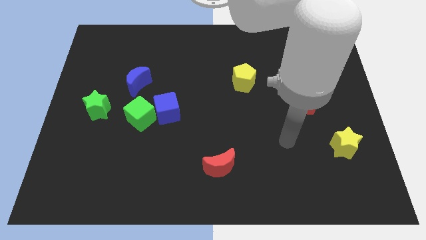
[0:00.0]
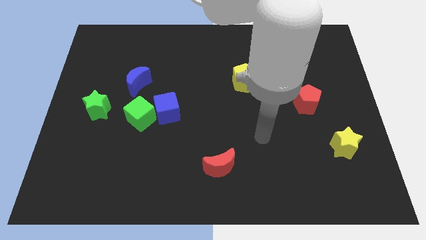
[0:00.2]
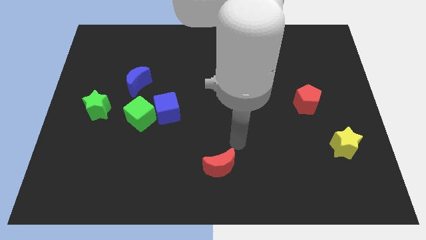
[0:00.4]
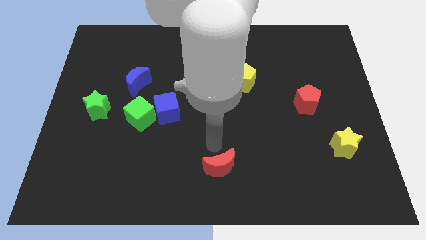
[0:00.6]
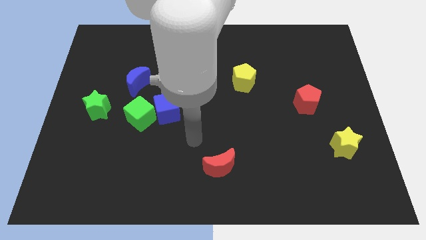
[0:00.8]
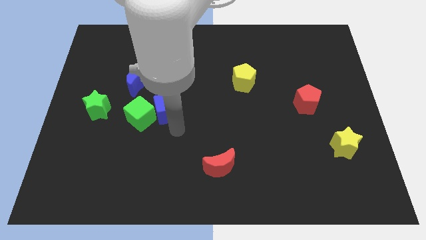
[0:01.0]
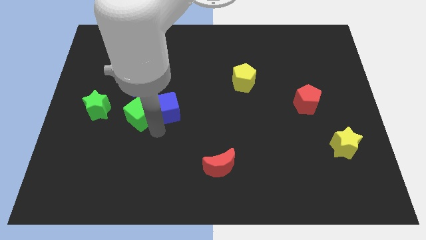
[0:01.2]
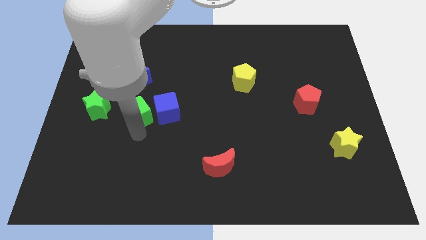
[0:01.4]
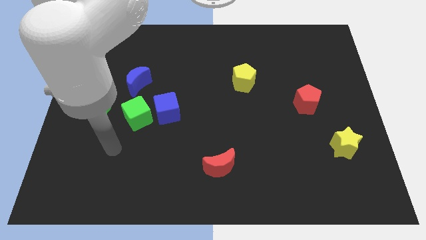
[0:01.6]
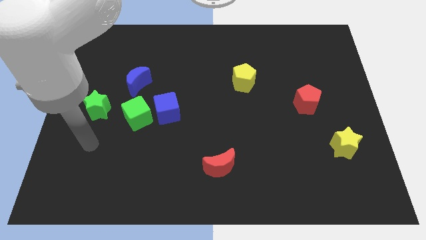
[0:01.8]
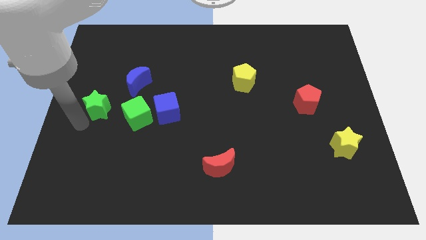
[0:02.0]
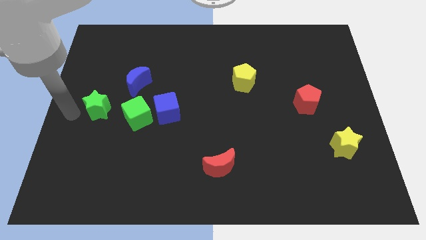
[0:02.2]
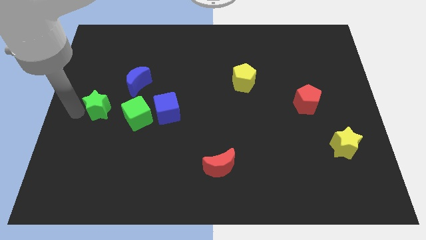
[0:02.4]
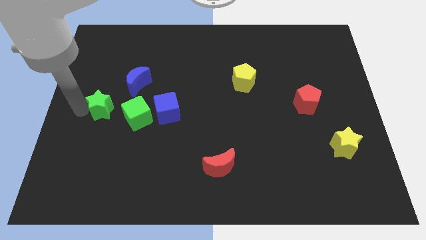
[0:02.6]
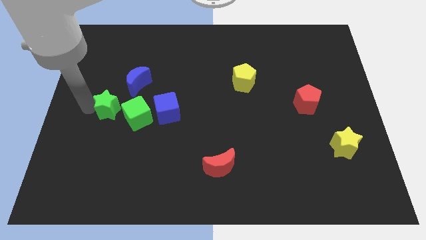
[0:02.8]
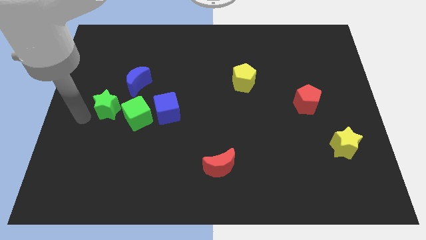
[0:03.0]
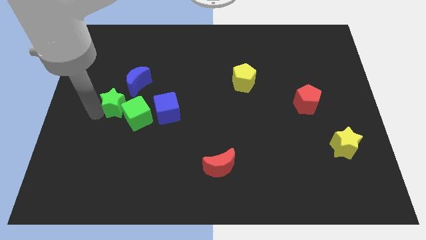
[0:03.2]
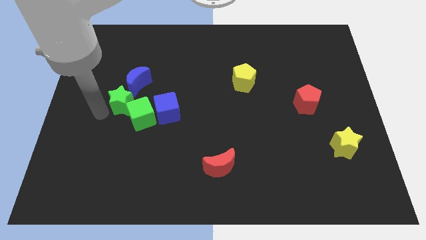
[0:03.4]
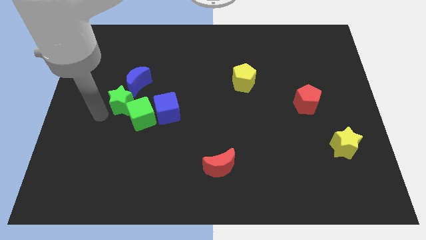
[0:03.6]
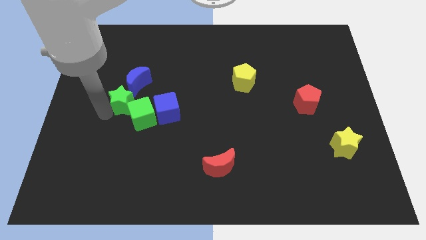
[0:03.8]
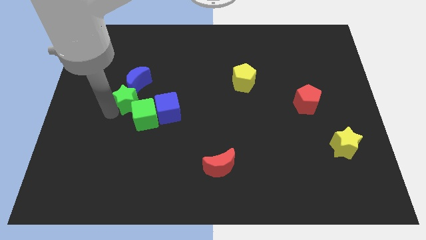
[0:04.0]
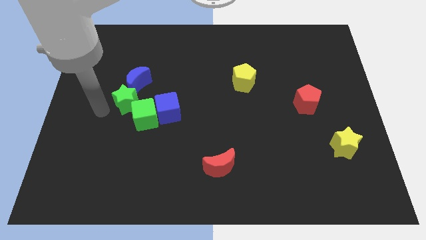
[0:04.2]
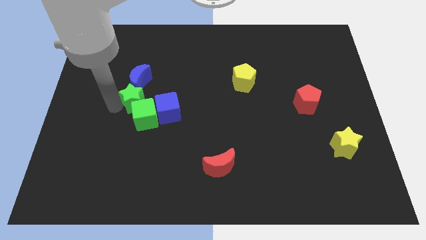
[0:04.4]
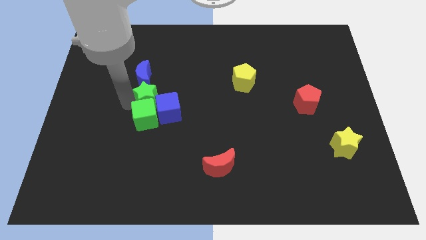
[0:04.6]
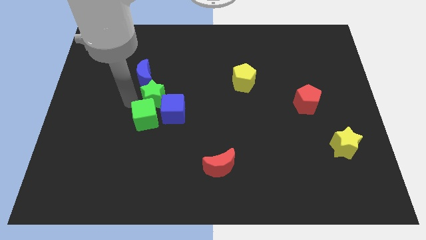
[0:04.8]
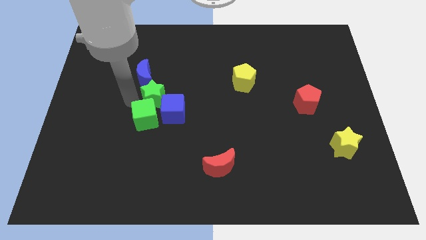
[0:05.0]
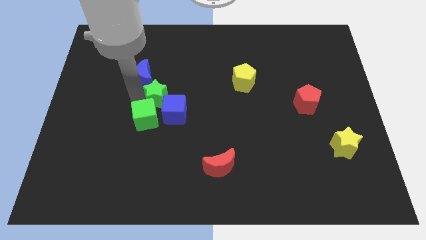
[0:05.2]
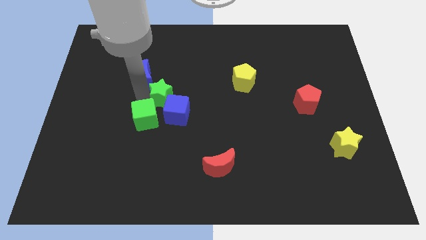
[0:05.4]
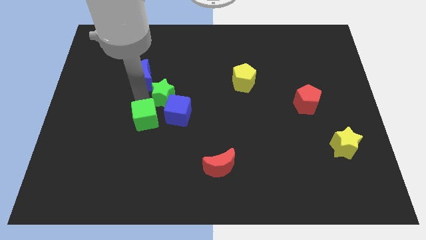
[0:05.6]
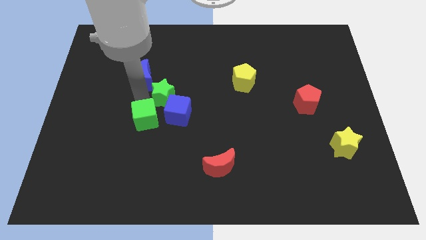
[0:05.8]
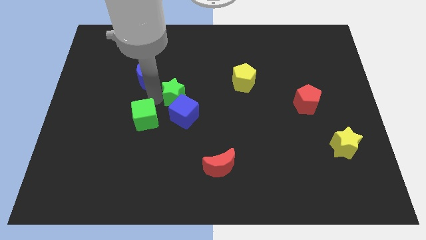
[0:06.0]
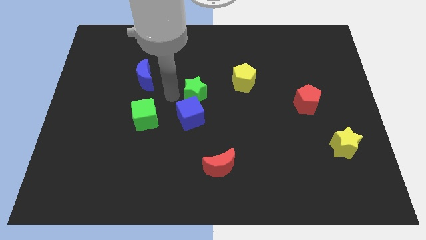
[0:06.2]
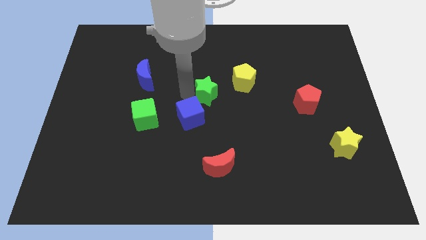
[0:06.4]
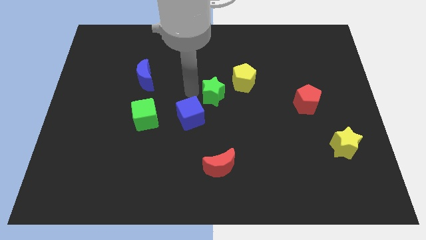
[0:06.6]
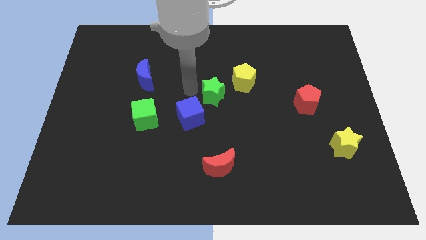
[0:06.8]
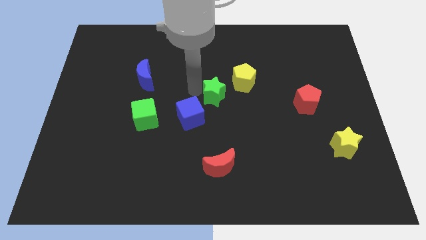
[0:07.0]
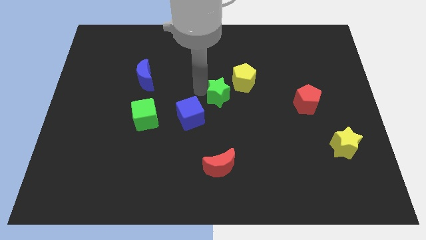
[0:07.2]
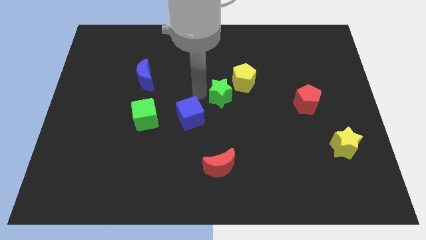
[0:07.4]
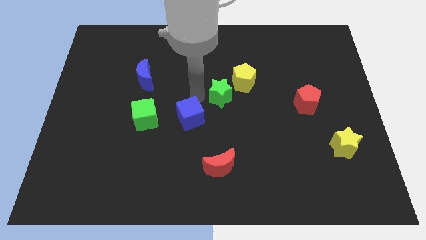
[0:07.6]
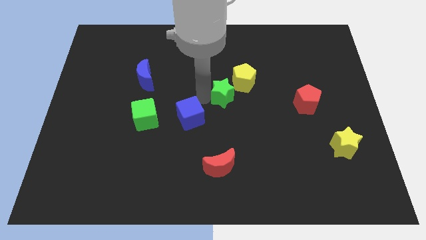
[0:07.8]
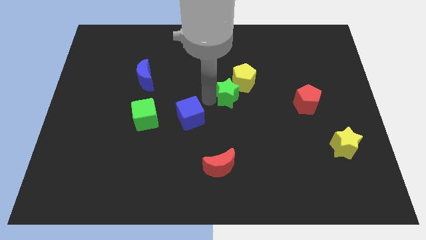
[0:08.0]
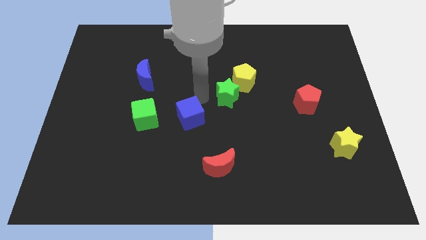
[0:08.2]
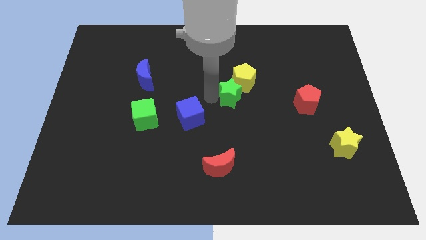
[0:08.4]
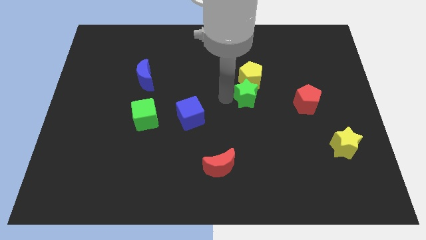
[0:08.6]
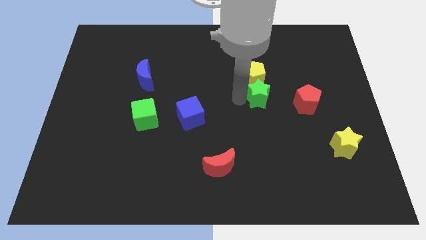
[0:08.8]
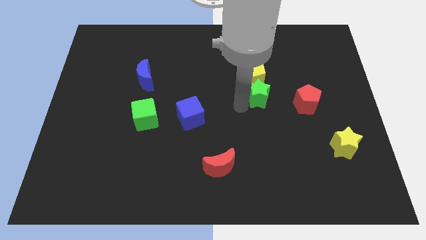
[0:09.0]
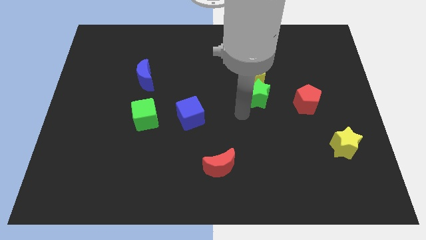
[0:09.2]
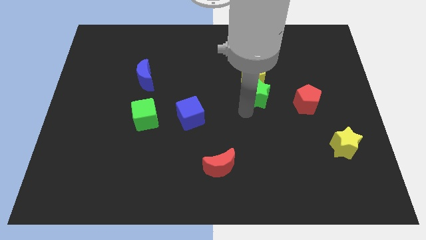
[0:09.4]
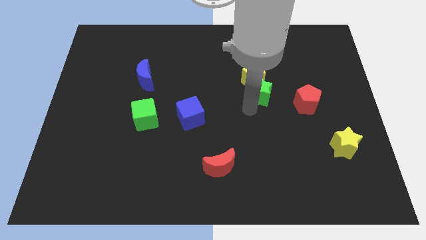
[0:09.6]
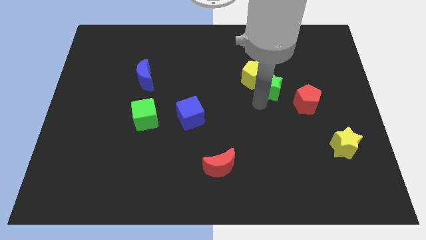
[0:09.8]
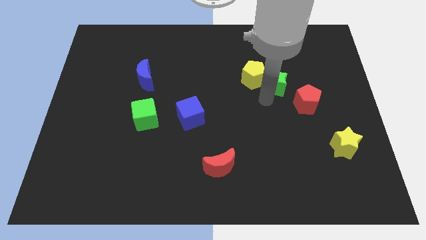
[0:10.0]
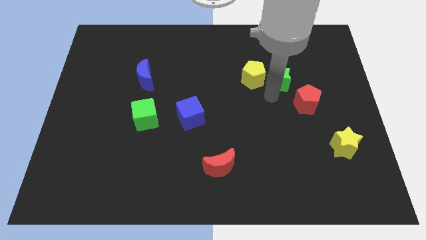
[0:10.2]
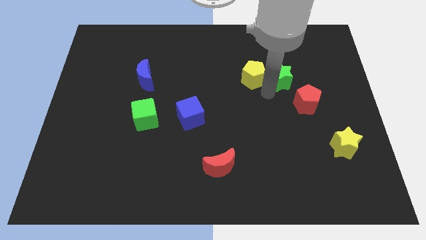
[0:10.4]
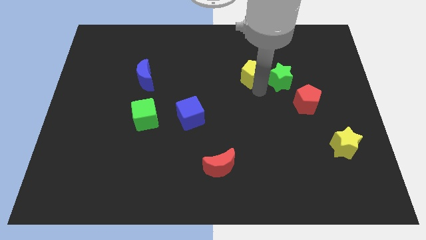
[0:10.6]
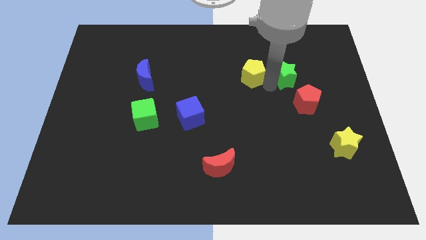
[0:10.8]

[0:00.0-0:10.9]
move the green star to the top of the red pentagon

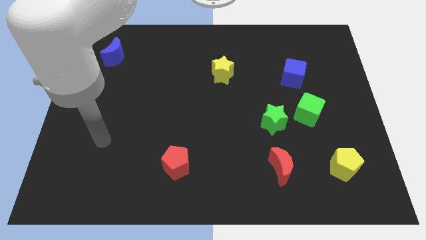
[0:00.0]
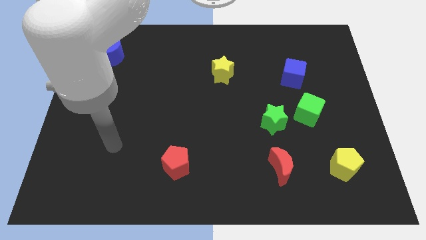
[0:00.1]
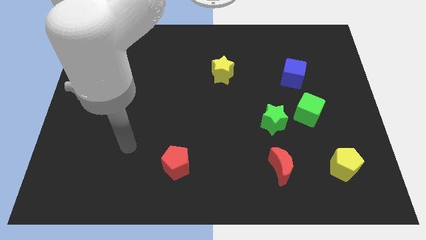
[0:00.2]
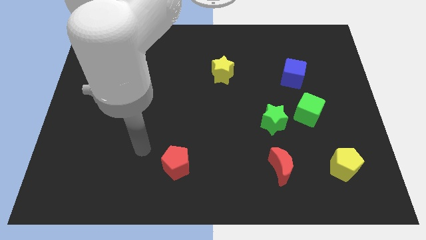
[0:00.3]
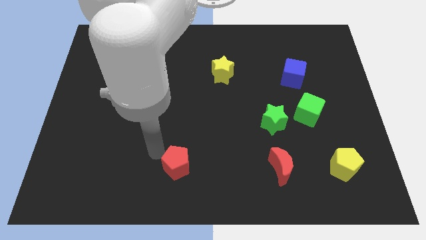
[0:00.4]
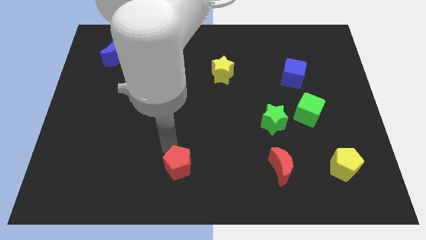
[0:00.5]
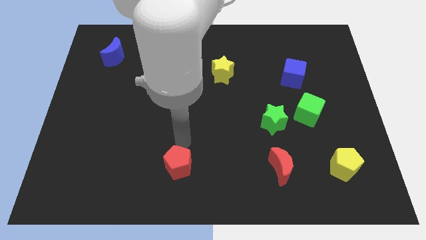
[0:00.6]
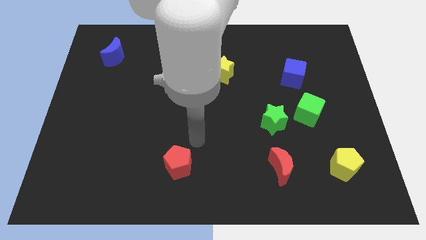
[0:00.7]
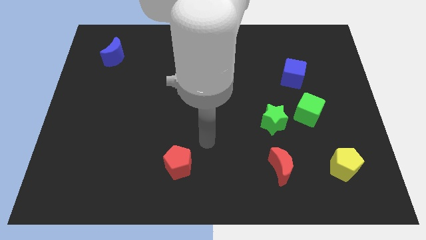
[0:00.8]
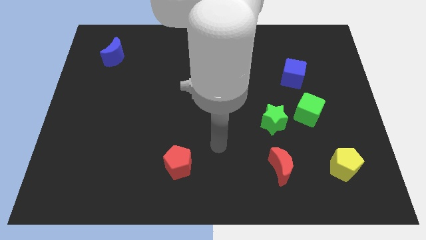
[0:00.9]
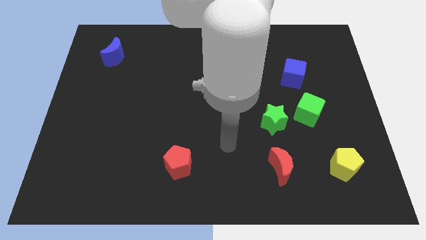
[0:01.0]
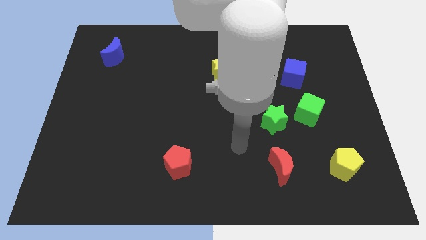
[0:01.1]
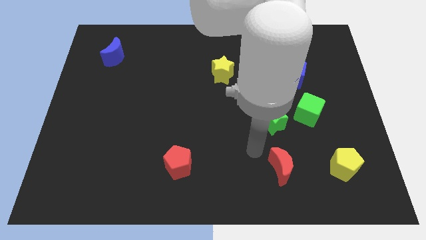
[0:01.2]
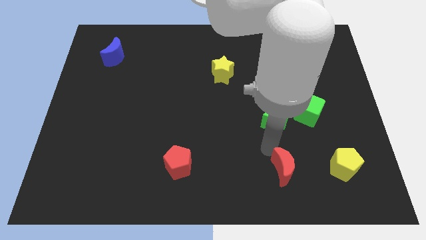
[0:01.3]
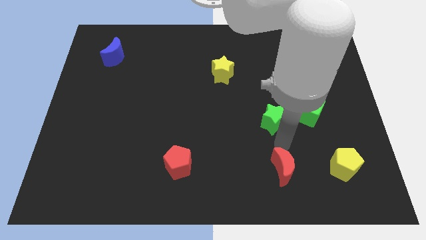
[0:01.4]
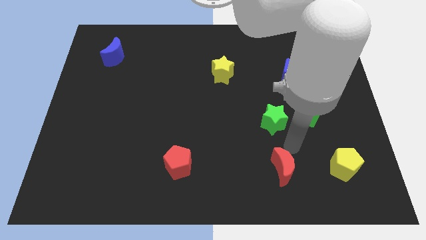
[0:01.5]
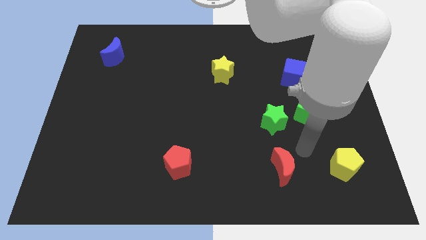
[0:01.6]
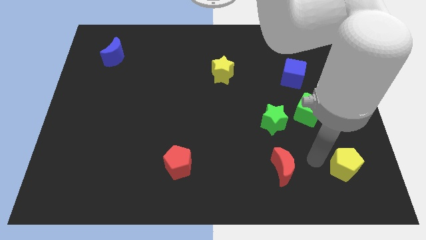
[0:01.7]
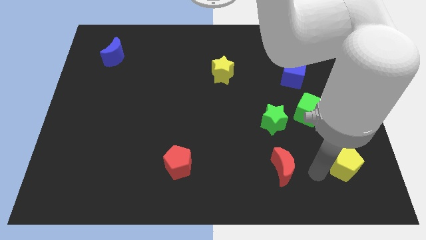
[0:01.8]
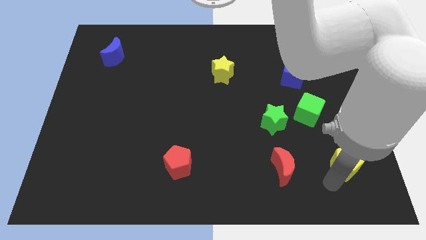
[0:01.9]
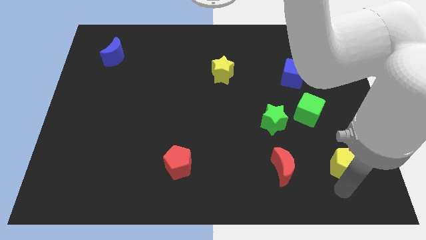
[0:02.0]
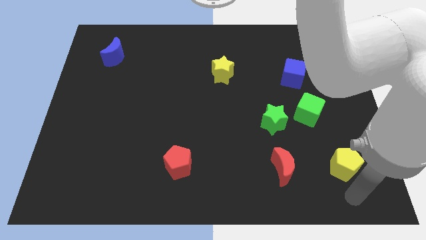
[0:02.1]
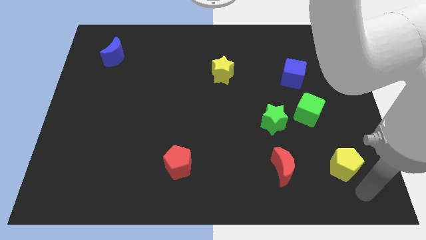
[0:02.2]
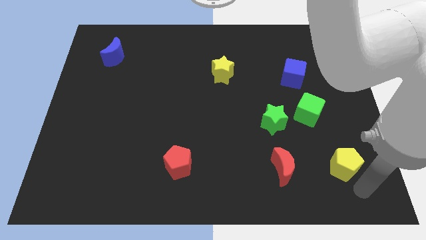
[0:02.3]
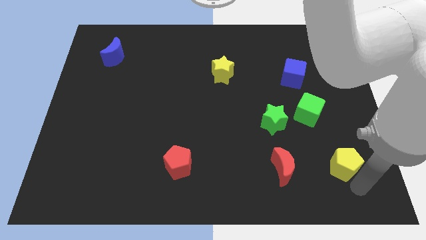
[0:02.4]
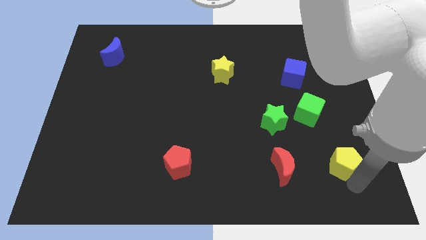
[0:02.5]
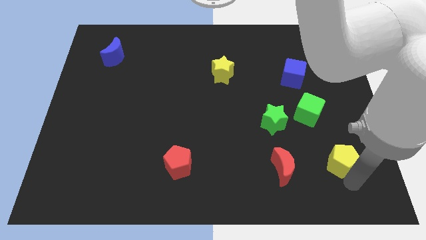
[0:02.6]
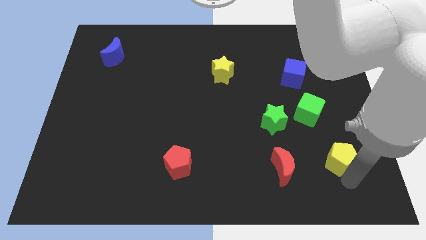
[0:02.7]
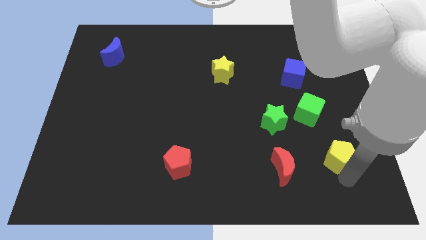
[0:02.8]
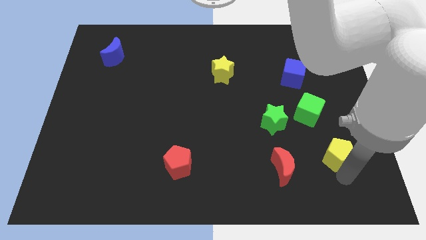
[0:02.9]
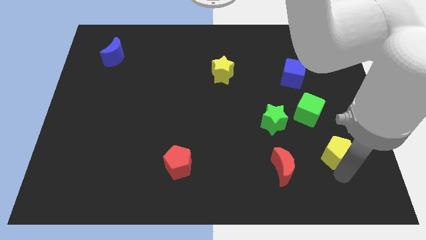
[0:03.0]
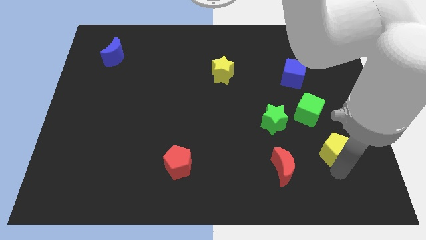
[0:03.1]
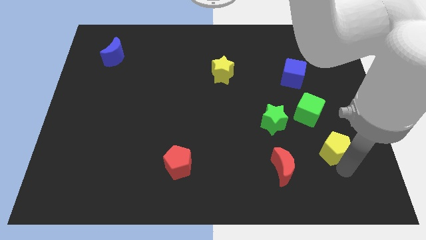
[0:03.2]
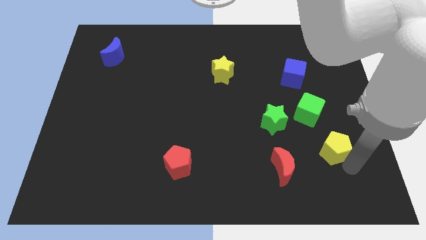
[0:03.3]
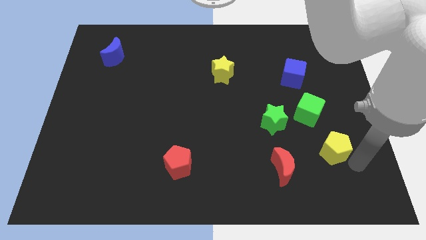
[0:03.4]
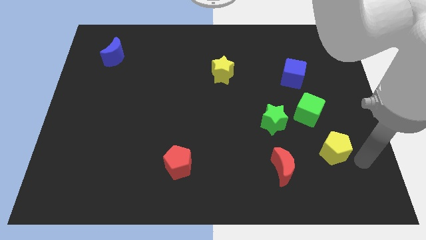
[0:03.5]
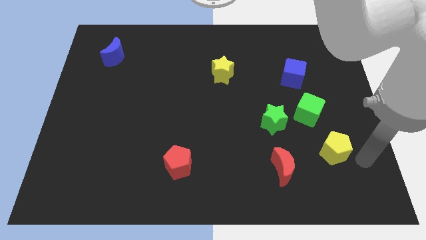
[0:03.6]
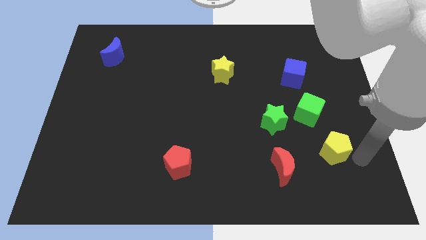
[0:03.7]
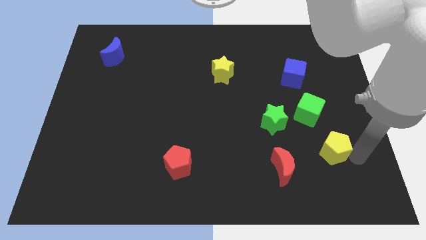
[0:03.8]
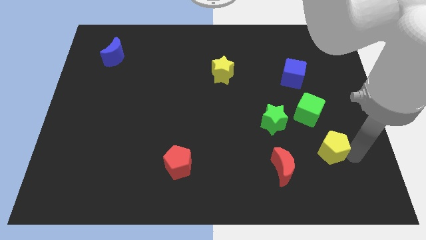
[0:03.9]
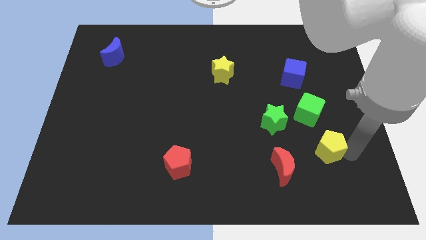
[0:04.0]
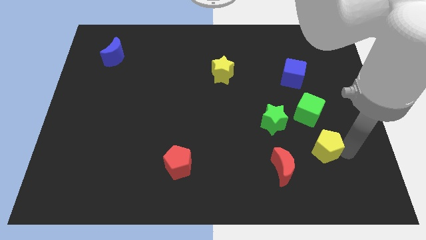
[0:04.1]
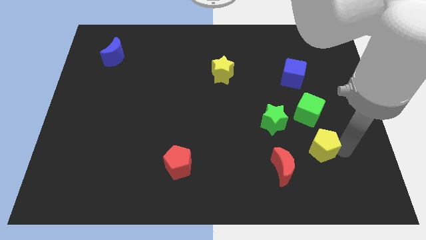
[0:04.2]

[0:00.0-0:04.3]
put the yellow pentagon to the bottom right of the green star
